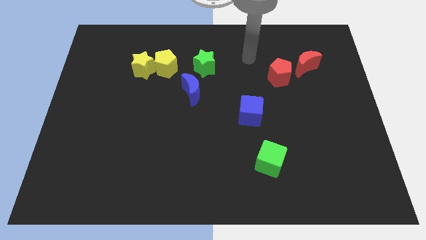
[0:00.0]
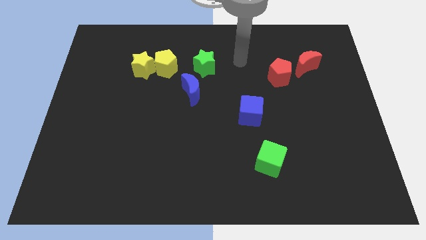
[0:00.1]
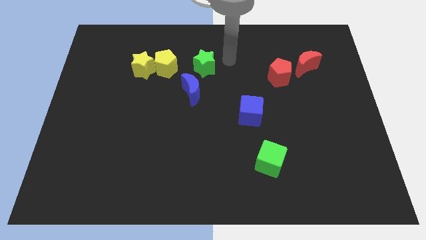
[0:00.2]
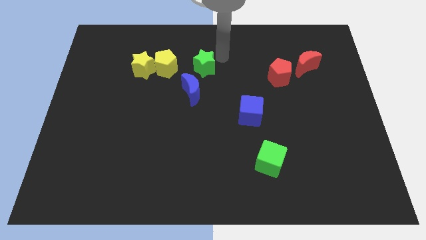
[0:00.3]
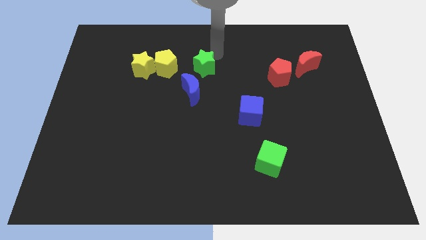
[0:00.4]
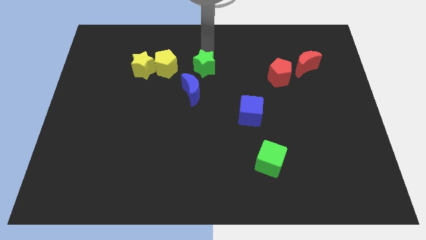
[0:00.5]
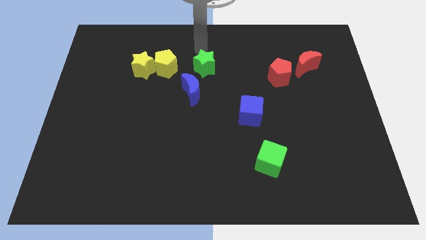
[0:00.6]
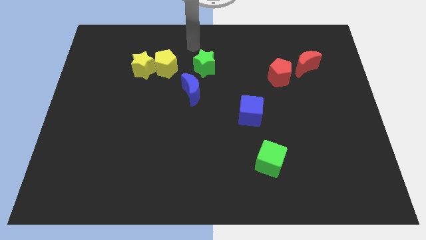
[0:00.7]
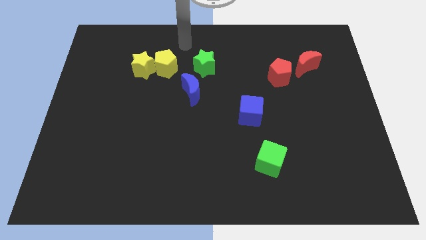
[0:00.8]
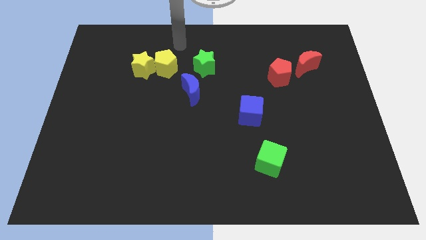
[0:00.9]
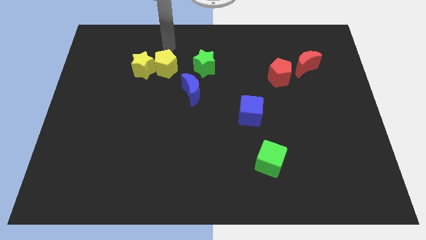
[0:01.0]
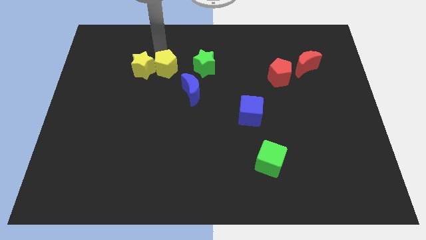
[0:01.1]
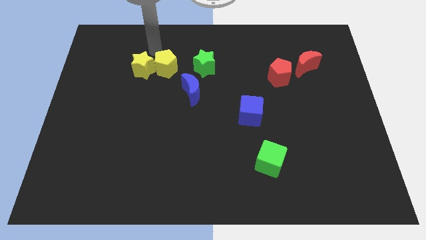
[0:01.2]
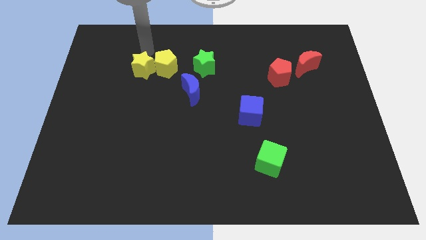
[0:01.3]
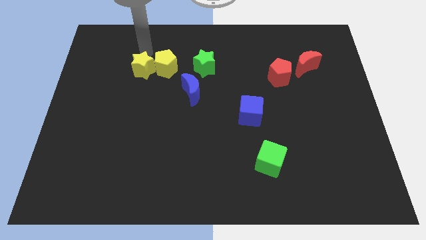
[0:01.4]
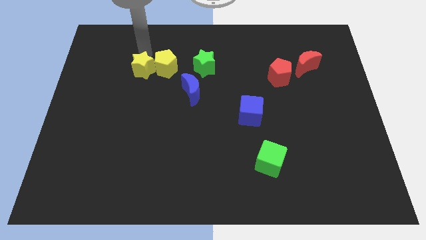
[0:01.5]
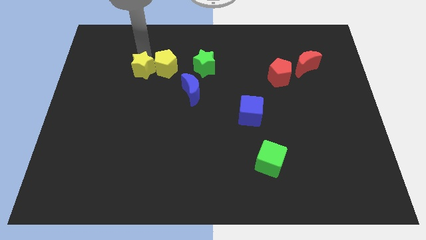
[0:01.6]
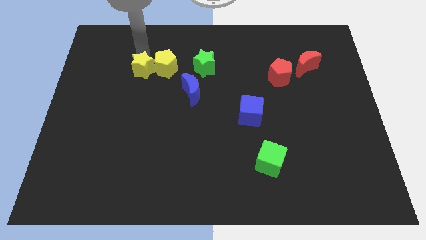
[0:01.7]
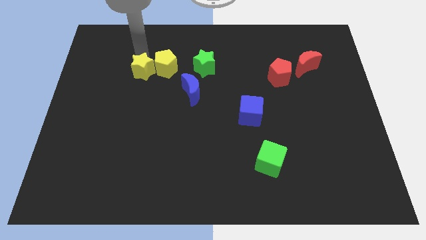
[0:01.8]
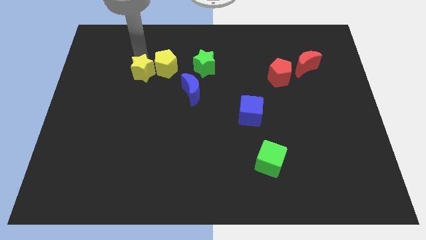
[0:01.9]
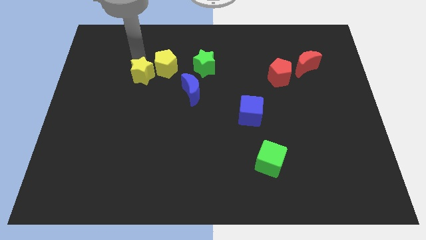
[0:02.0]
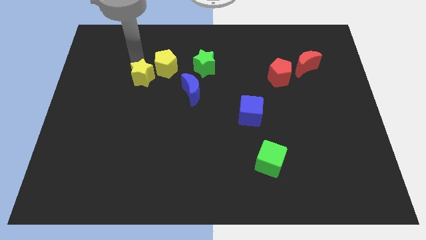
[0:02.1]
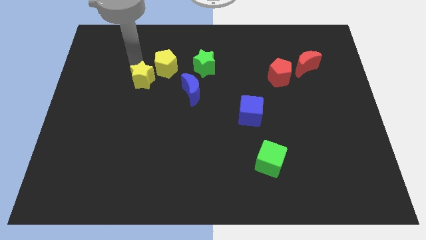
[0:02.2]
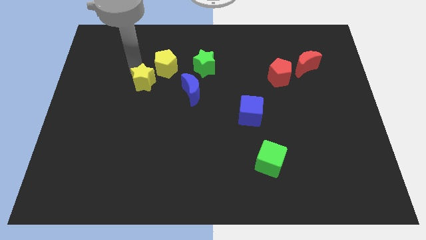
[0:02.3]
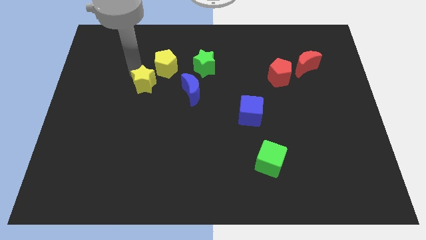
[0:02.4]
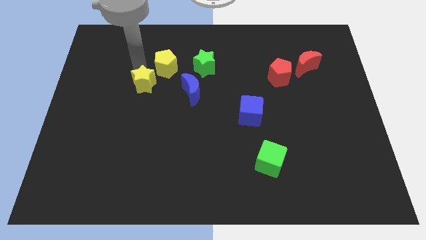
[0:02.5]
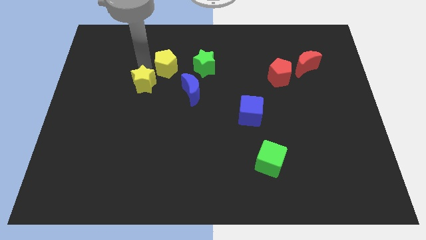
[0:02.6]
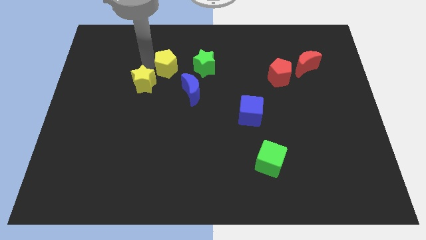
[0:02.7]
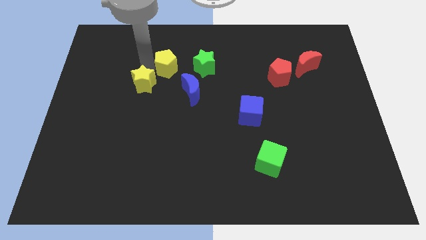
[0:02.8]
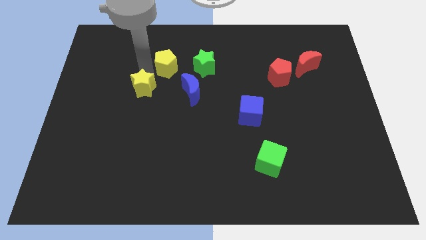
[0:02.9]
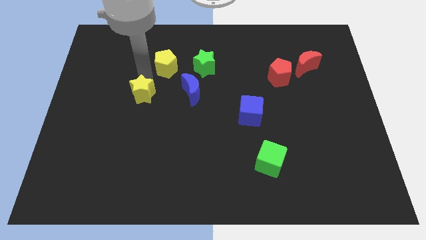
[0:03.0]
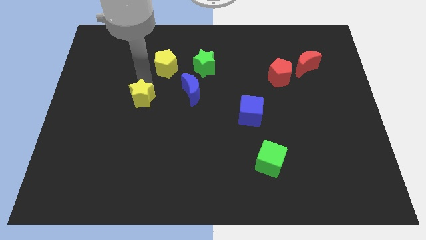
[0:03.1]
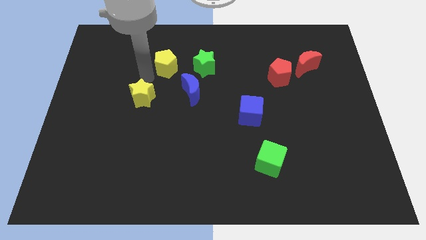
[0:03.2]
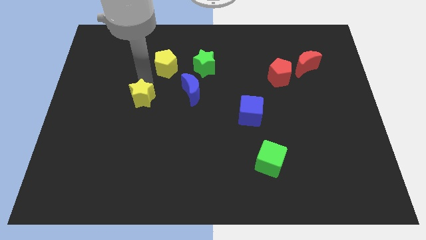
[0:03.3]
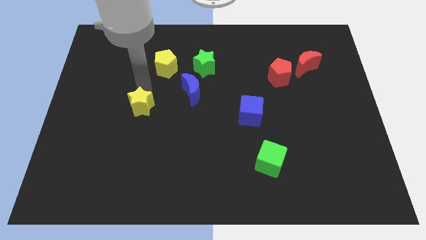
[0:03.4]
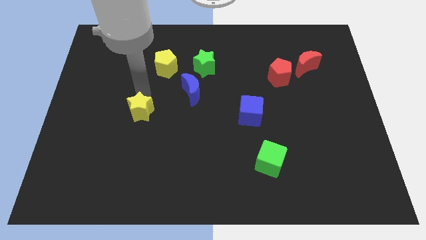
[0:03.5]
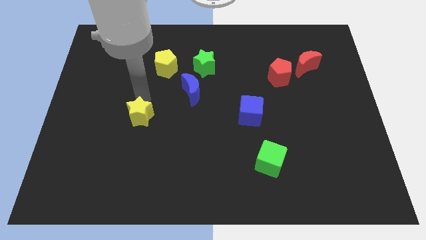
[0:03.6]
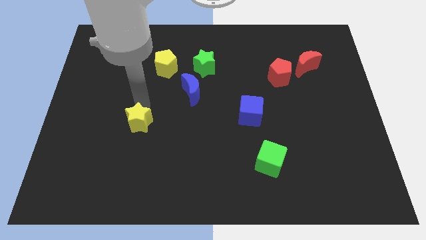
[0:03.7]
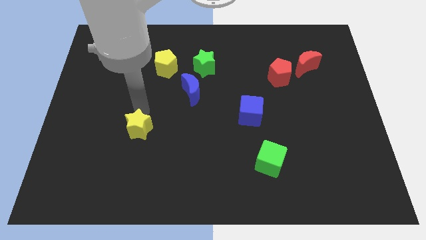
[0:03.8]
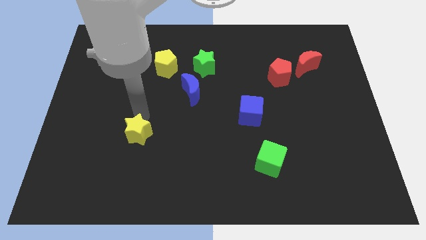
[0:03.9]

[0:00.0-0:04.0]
slide the yellow star down

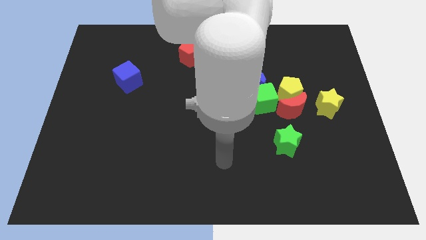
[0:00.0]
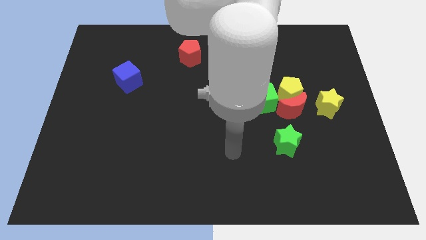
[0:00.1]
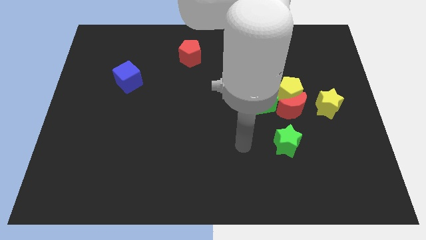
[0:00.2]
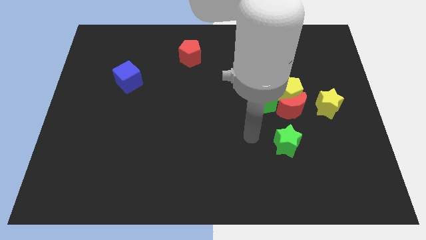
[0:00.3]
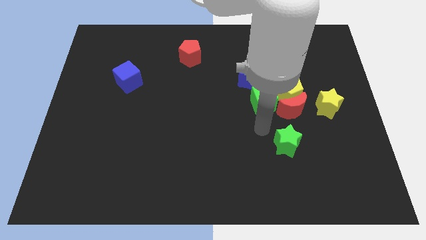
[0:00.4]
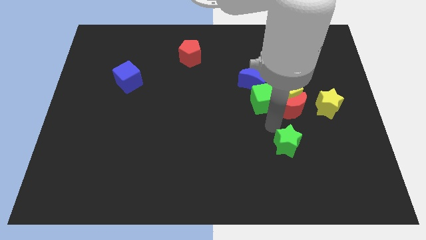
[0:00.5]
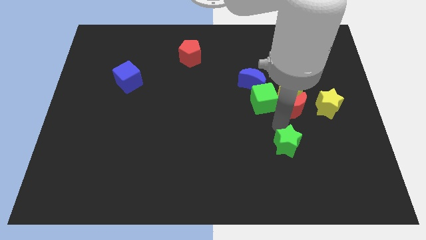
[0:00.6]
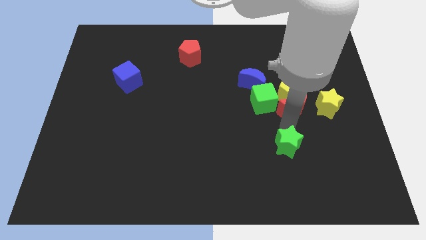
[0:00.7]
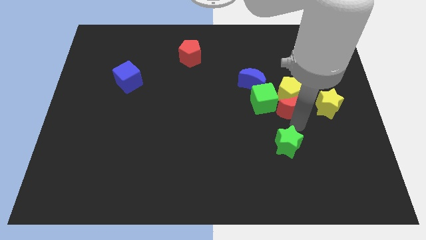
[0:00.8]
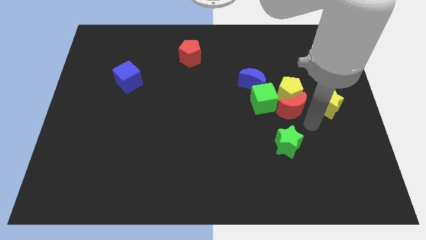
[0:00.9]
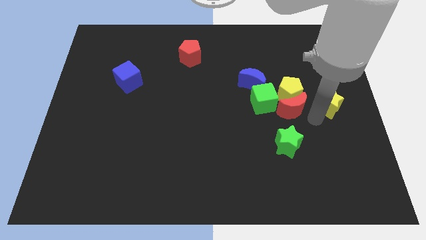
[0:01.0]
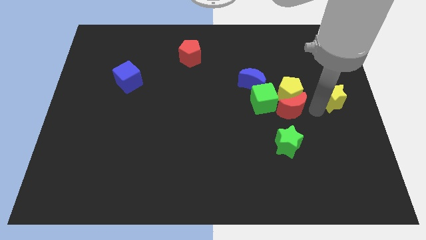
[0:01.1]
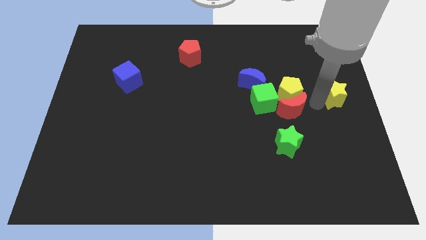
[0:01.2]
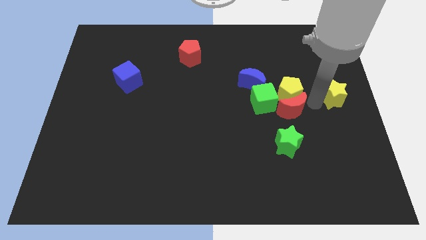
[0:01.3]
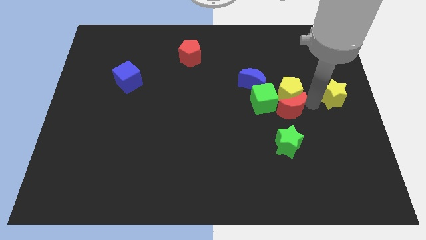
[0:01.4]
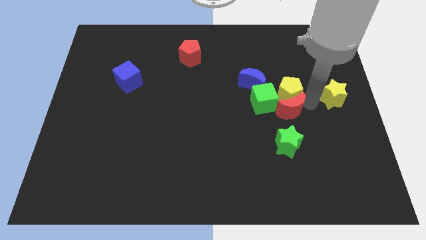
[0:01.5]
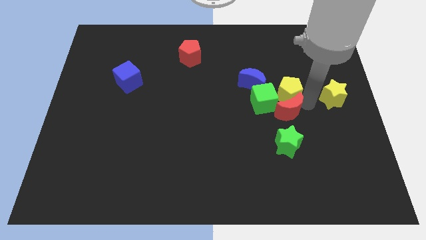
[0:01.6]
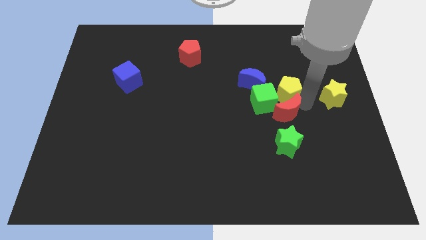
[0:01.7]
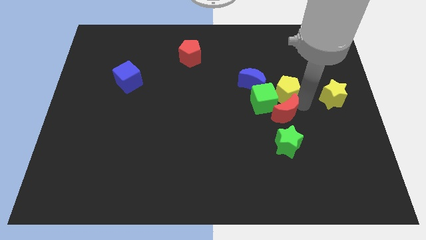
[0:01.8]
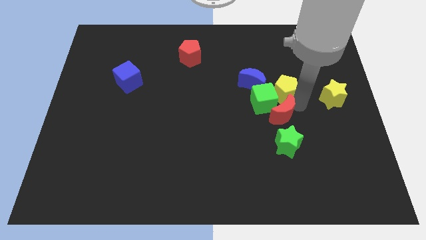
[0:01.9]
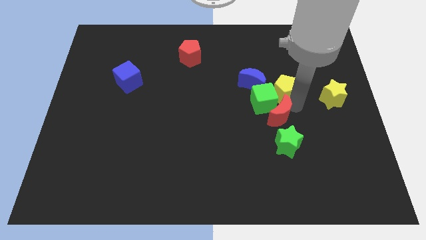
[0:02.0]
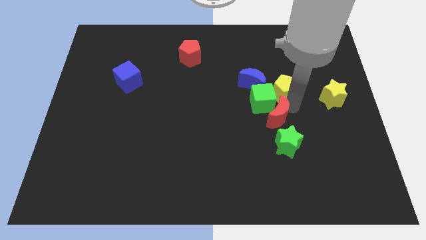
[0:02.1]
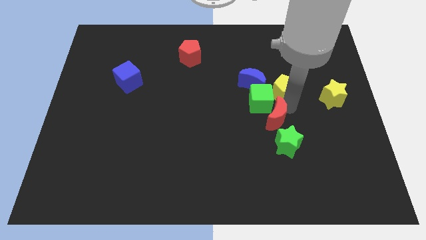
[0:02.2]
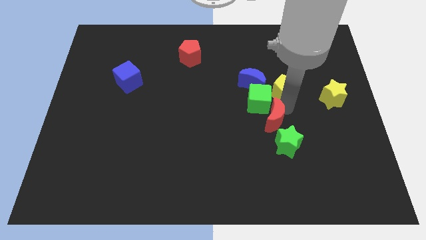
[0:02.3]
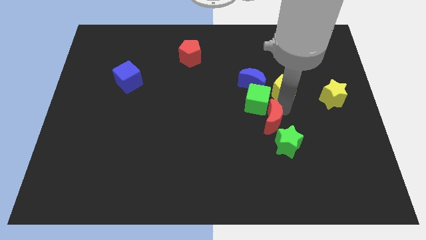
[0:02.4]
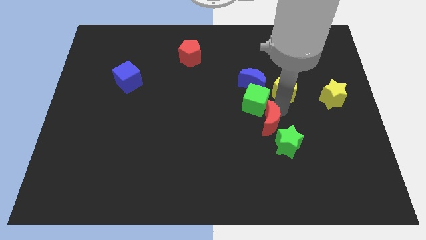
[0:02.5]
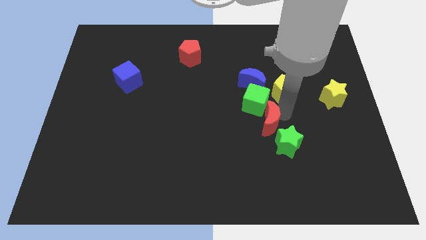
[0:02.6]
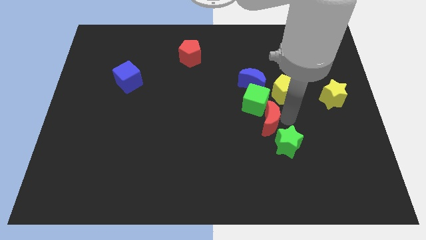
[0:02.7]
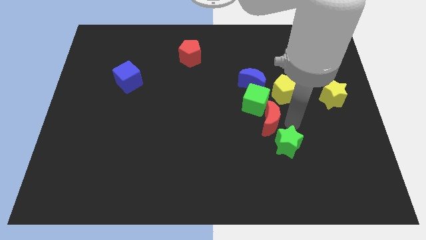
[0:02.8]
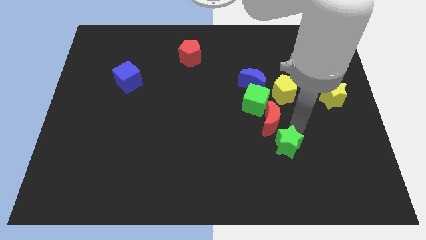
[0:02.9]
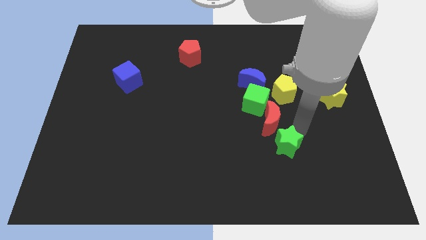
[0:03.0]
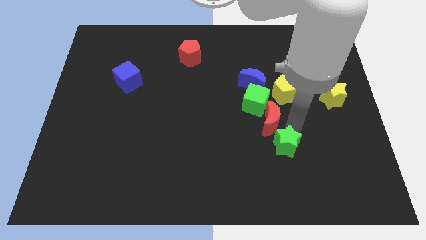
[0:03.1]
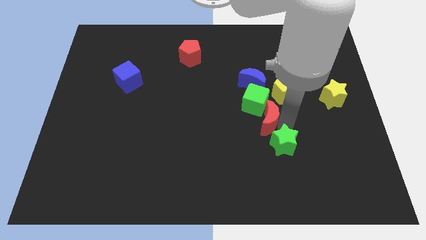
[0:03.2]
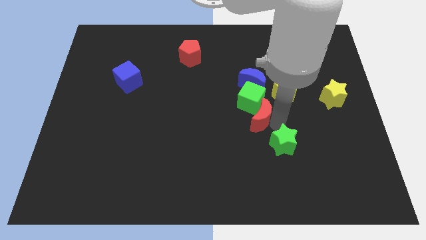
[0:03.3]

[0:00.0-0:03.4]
push the red moon a little to the left

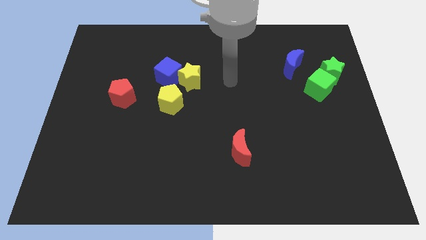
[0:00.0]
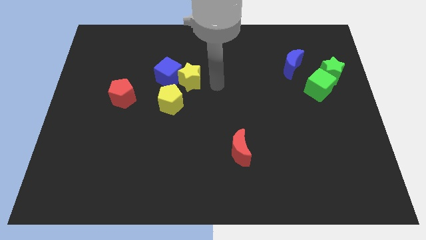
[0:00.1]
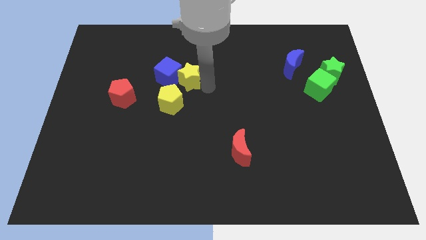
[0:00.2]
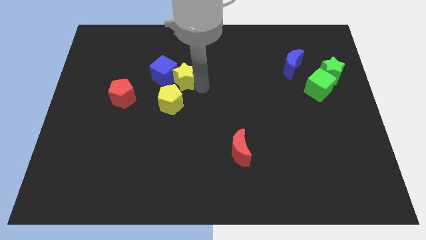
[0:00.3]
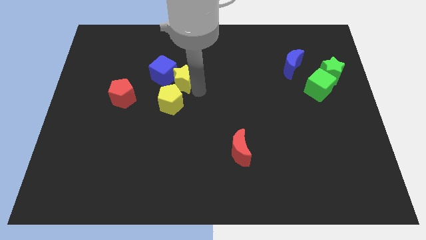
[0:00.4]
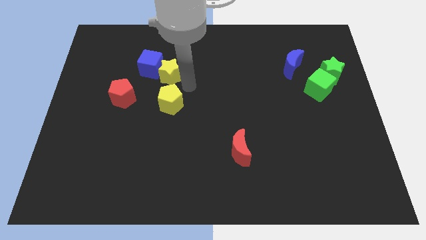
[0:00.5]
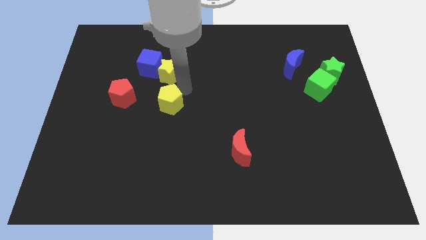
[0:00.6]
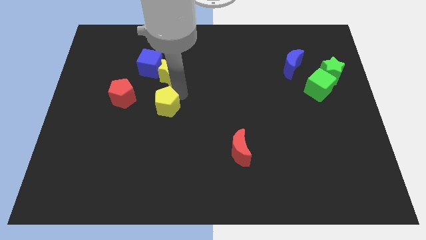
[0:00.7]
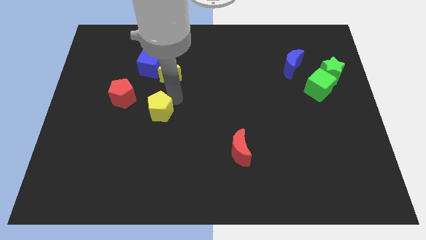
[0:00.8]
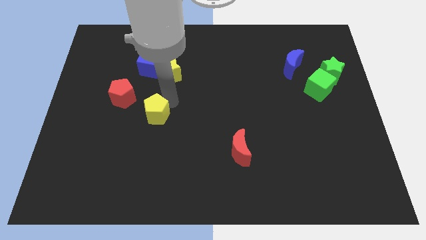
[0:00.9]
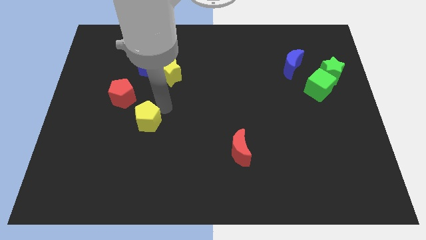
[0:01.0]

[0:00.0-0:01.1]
push the yellow pentagon a bit down and to the left
